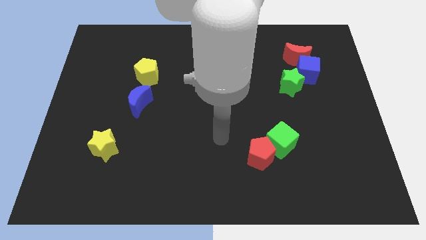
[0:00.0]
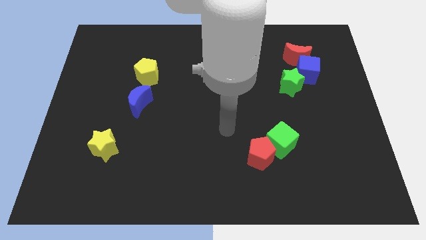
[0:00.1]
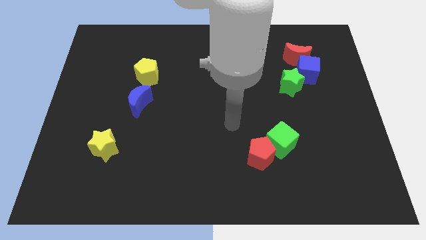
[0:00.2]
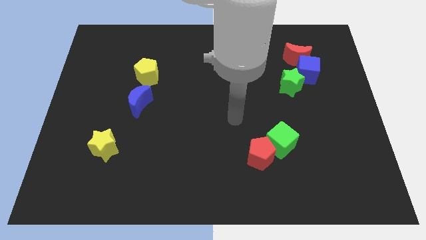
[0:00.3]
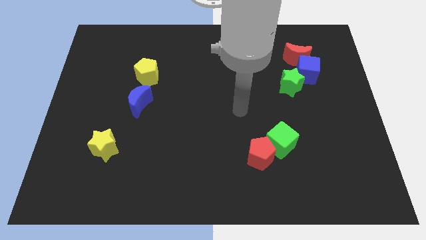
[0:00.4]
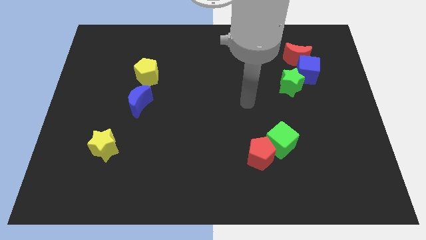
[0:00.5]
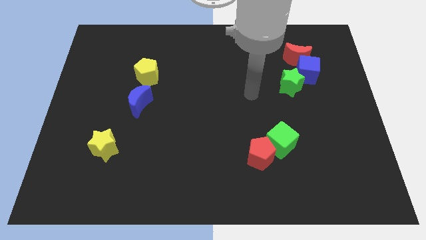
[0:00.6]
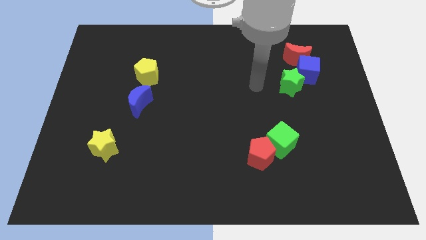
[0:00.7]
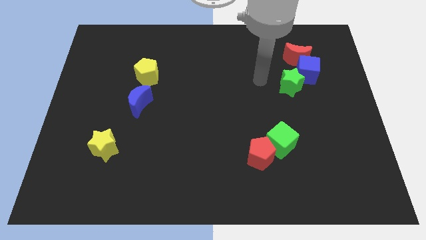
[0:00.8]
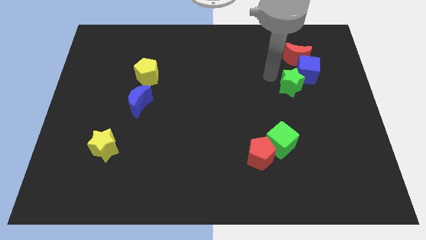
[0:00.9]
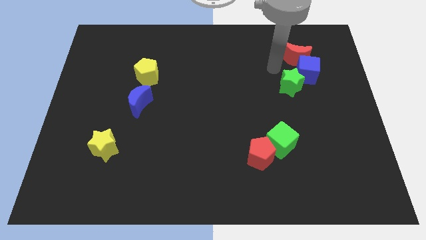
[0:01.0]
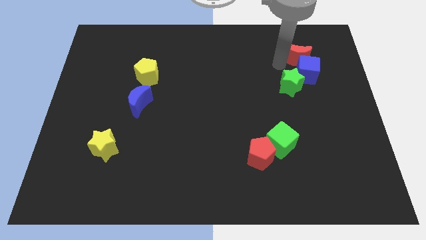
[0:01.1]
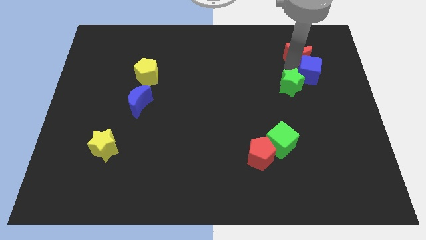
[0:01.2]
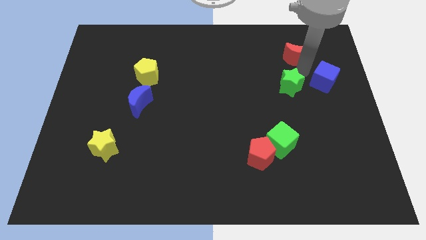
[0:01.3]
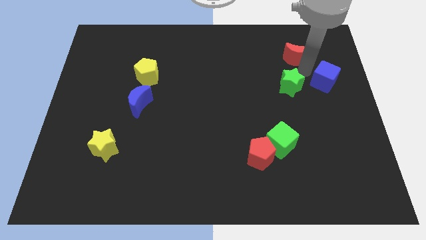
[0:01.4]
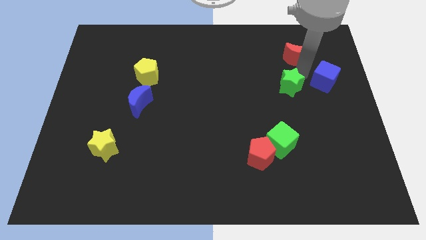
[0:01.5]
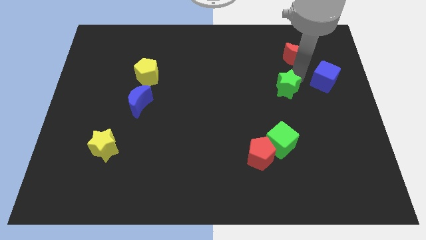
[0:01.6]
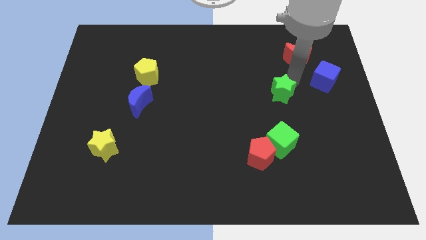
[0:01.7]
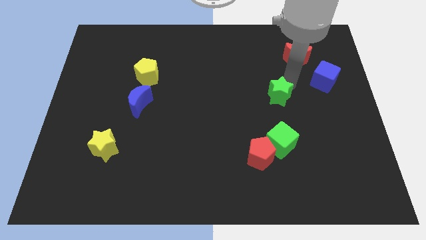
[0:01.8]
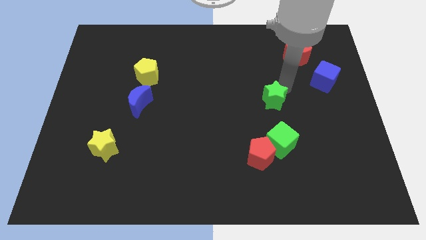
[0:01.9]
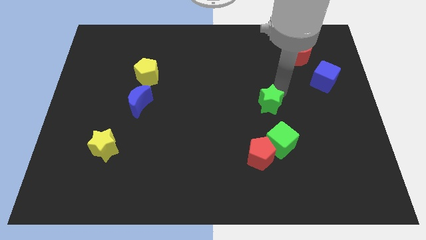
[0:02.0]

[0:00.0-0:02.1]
push the green star slightly down and then left

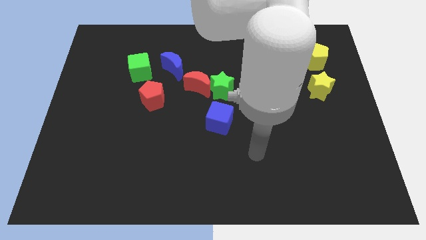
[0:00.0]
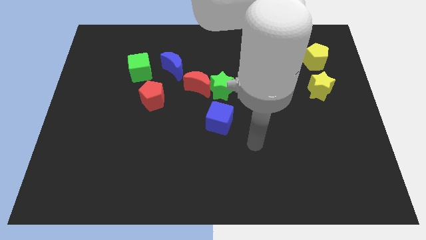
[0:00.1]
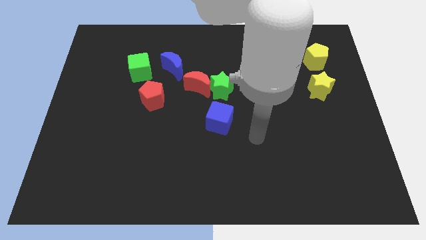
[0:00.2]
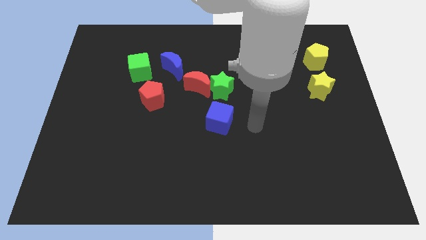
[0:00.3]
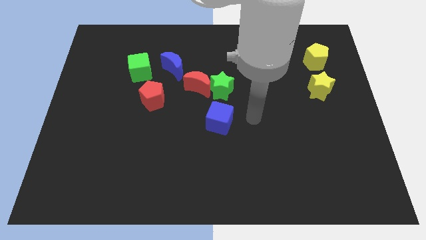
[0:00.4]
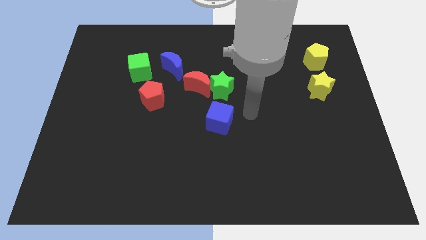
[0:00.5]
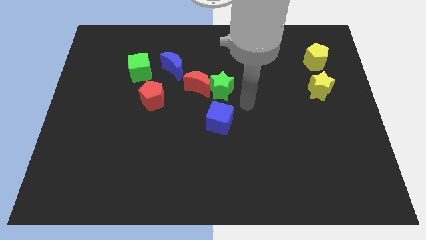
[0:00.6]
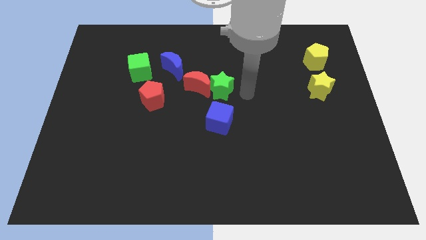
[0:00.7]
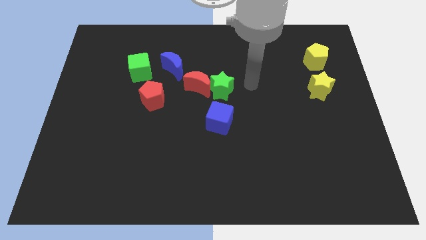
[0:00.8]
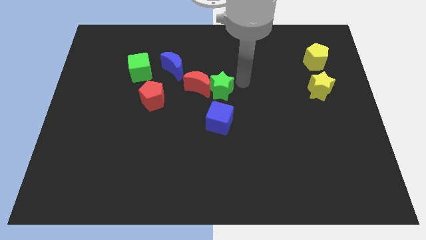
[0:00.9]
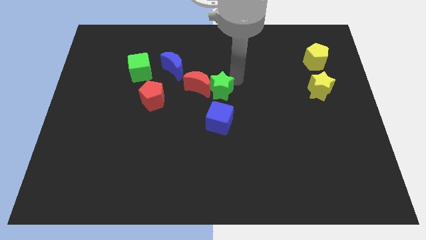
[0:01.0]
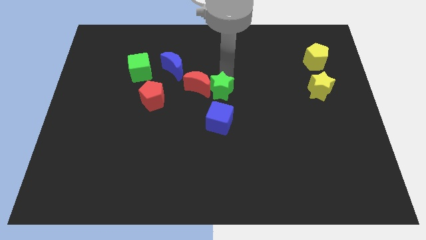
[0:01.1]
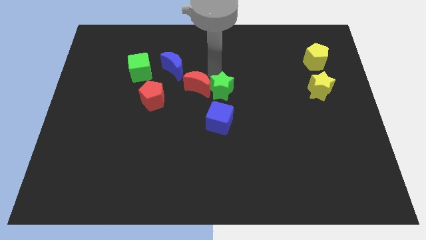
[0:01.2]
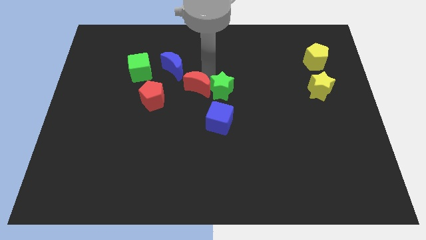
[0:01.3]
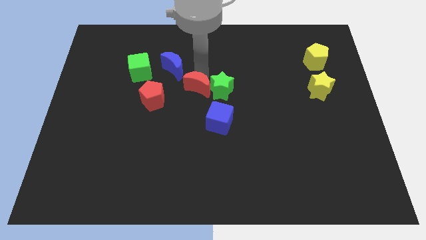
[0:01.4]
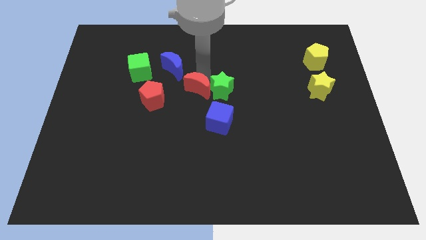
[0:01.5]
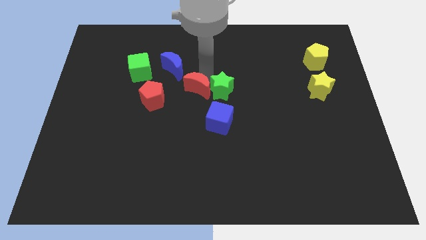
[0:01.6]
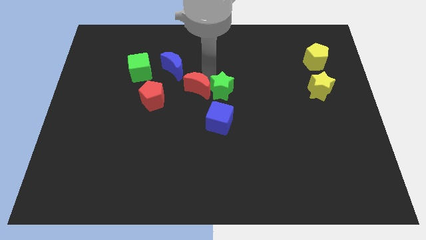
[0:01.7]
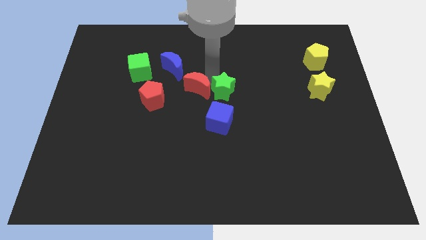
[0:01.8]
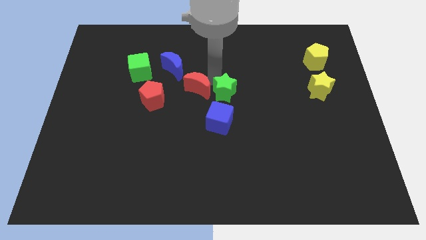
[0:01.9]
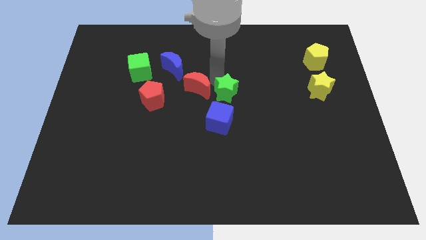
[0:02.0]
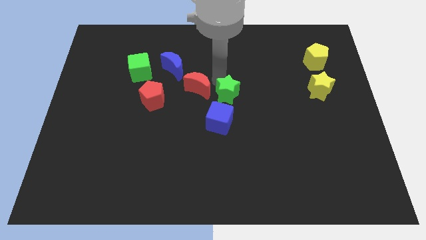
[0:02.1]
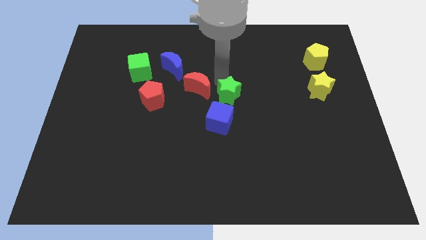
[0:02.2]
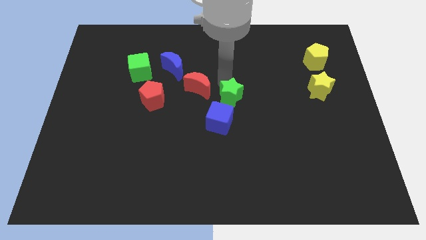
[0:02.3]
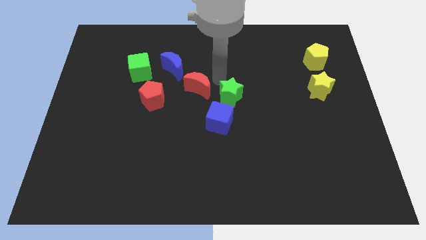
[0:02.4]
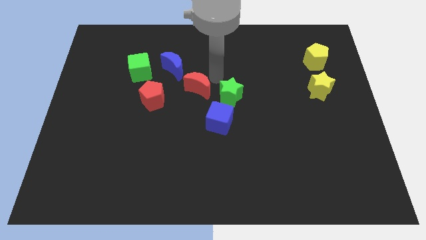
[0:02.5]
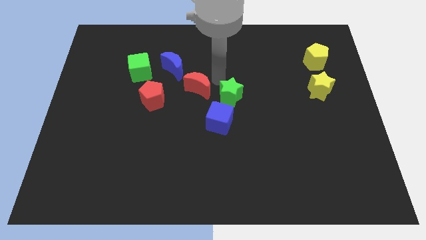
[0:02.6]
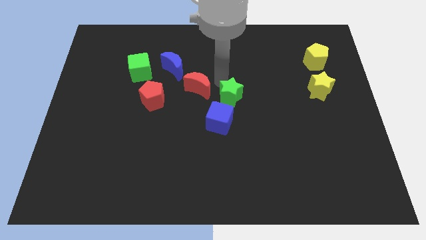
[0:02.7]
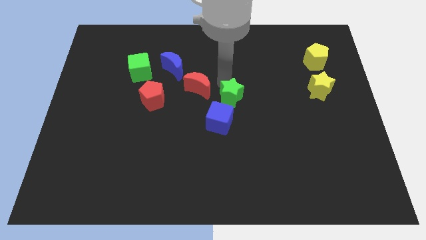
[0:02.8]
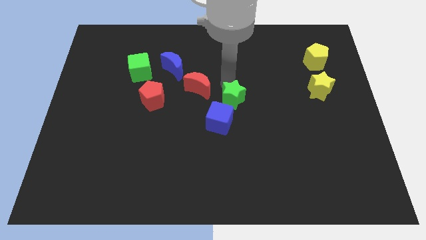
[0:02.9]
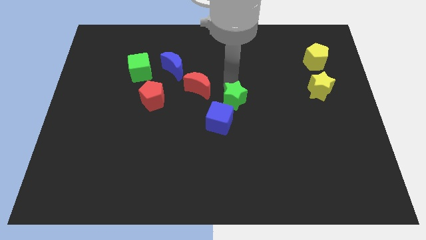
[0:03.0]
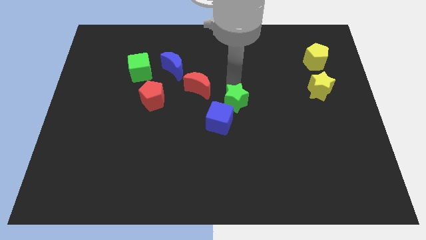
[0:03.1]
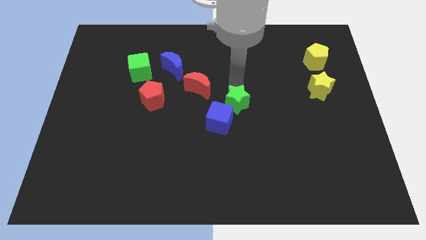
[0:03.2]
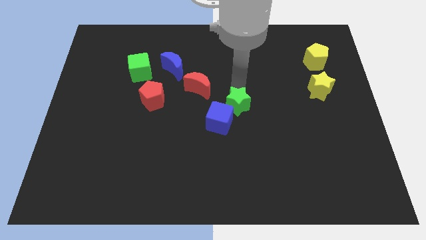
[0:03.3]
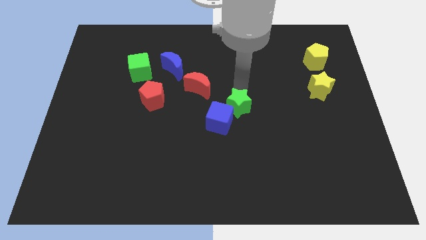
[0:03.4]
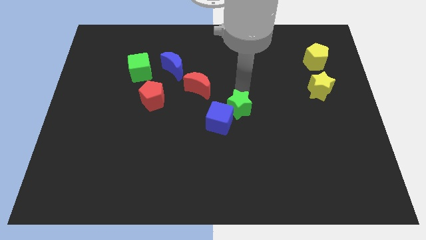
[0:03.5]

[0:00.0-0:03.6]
move the green star downwards and right a little bit

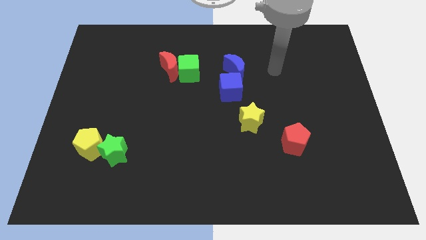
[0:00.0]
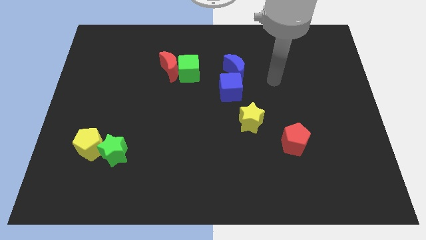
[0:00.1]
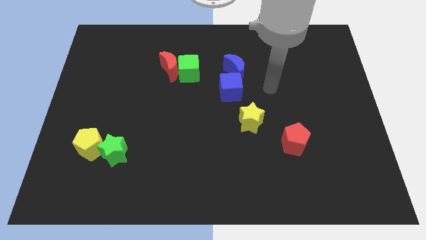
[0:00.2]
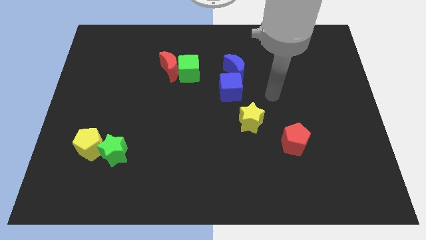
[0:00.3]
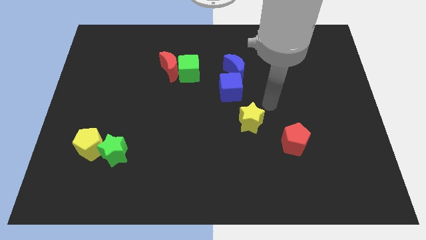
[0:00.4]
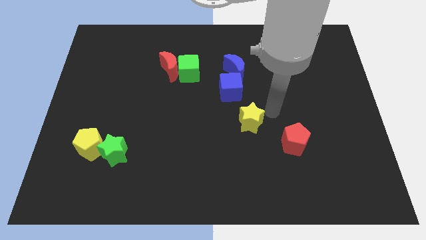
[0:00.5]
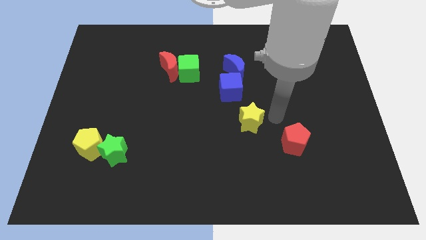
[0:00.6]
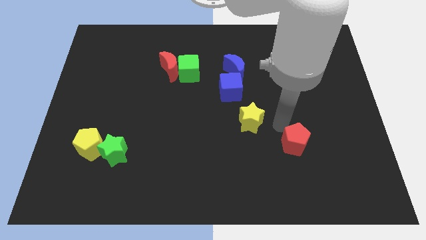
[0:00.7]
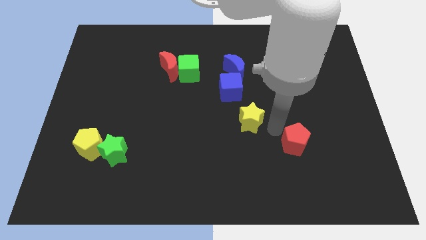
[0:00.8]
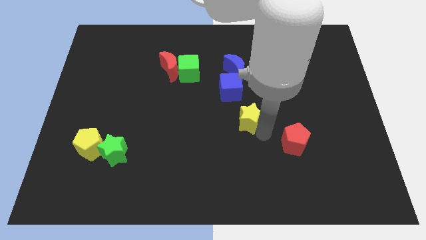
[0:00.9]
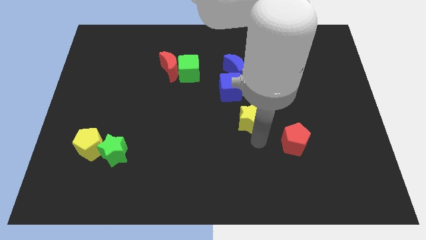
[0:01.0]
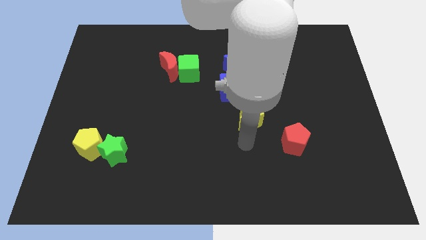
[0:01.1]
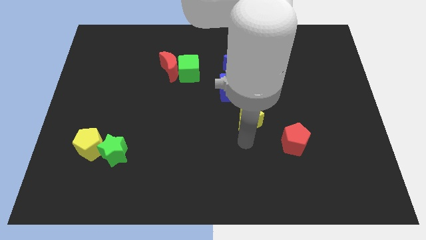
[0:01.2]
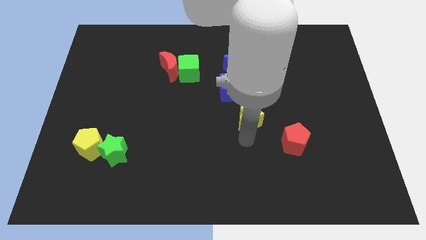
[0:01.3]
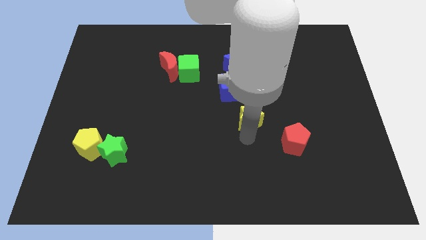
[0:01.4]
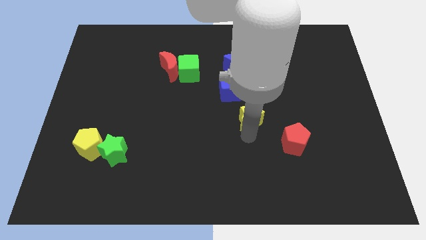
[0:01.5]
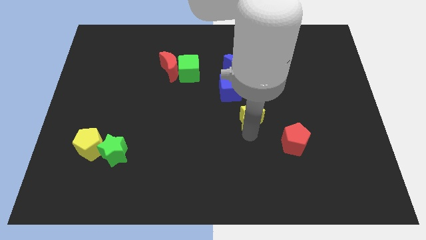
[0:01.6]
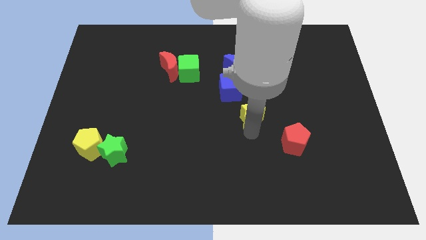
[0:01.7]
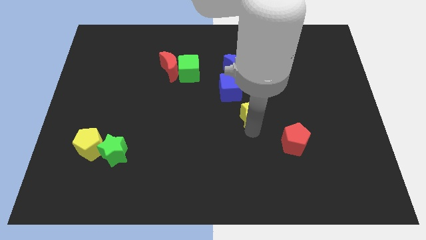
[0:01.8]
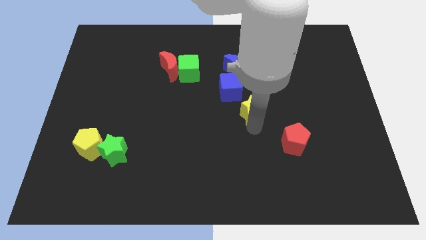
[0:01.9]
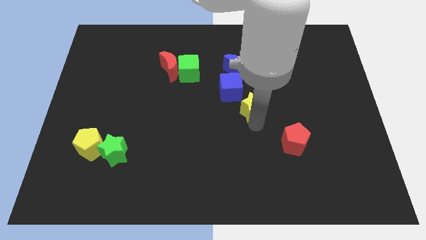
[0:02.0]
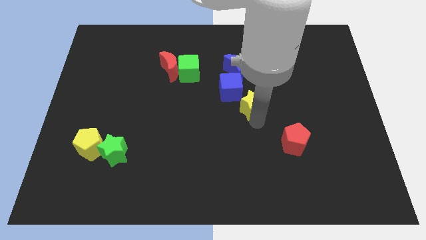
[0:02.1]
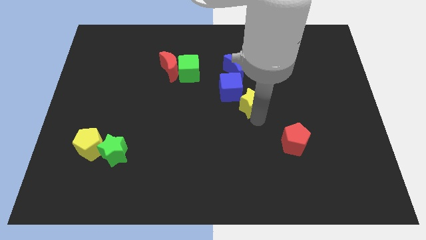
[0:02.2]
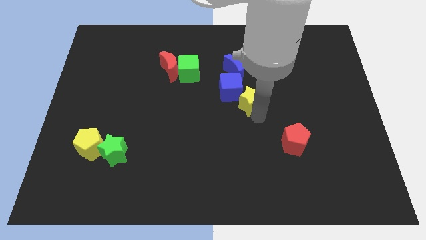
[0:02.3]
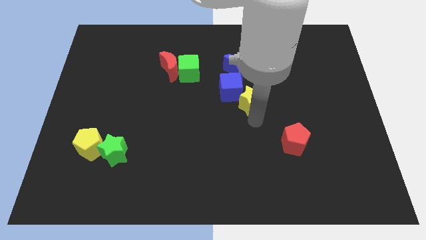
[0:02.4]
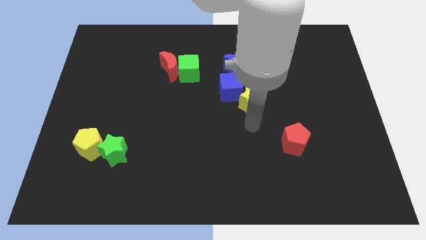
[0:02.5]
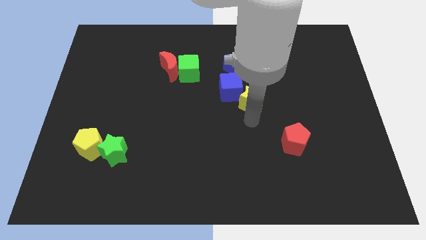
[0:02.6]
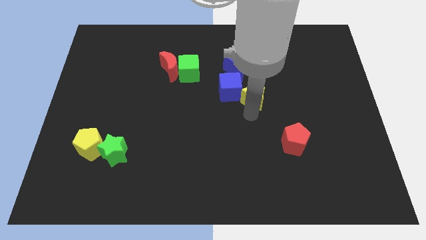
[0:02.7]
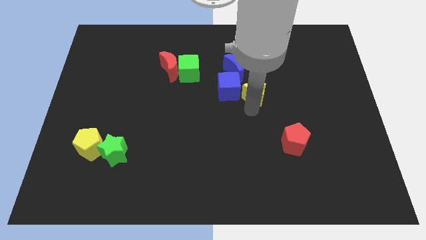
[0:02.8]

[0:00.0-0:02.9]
push the yellow star up a bit
